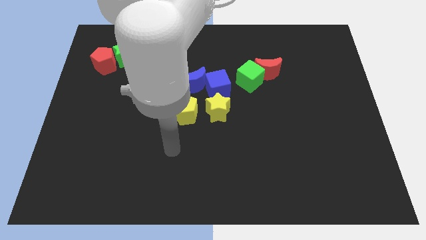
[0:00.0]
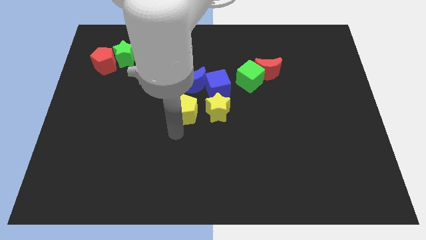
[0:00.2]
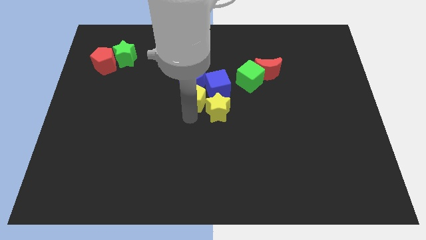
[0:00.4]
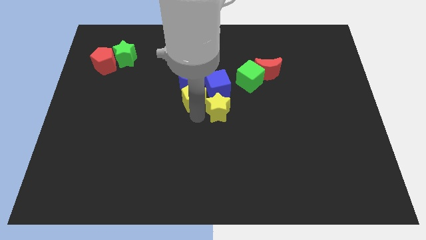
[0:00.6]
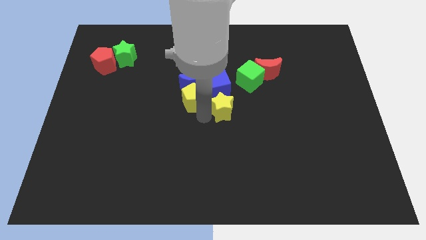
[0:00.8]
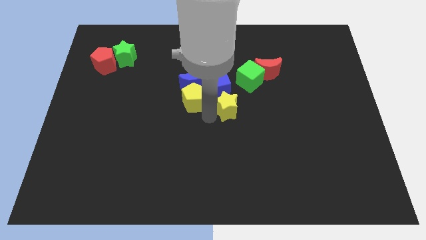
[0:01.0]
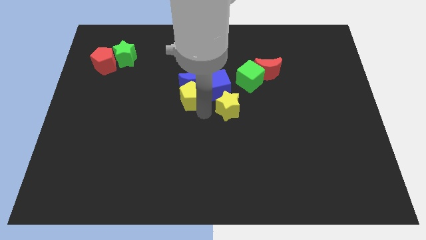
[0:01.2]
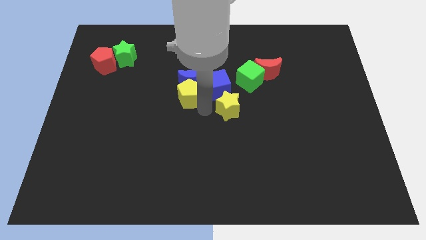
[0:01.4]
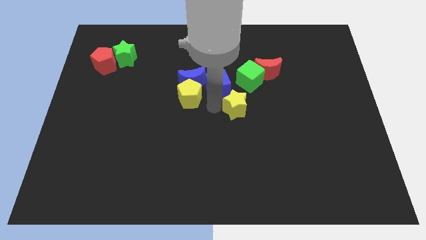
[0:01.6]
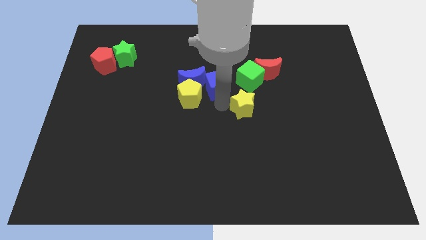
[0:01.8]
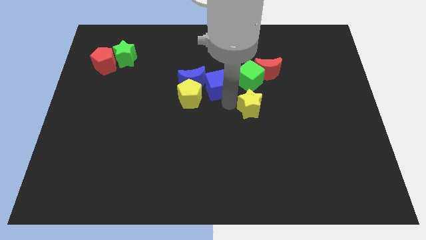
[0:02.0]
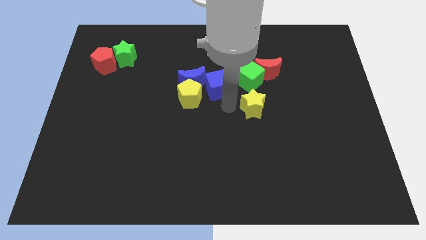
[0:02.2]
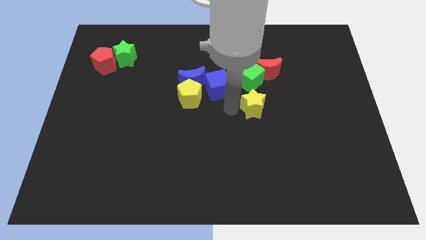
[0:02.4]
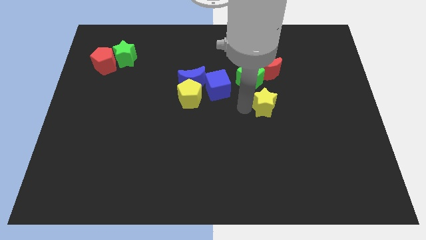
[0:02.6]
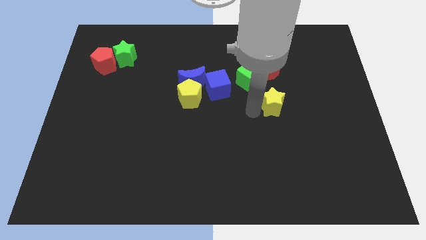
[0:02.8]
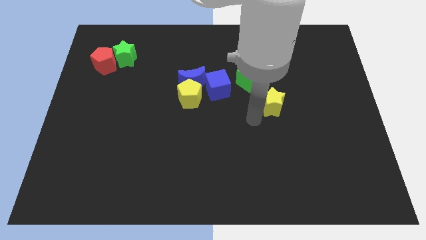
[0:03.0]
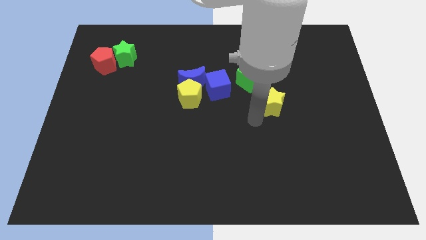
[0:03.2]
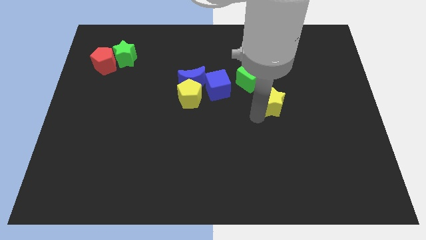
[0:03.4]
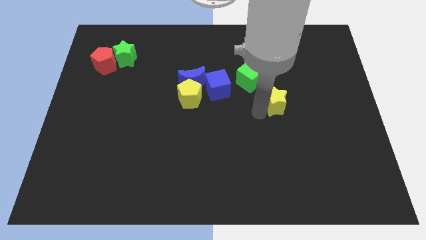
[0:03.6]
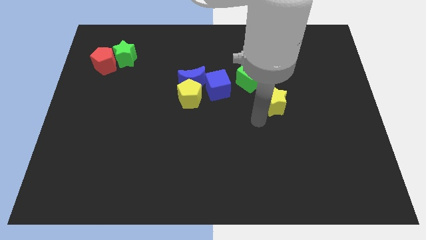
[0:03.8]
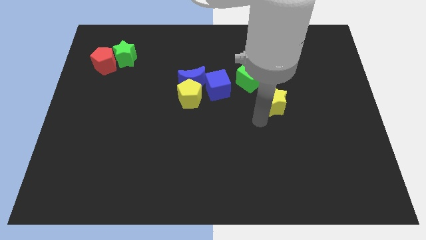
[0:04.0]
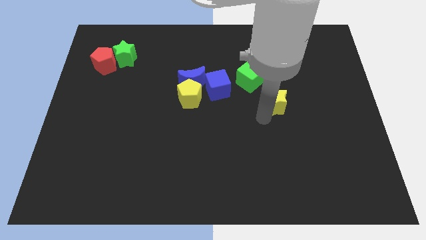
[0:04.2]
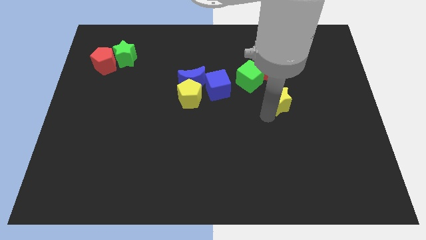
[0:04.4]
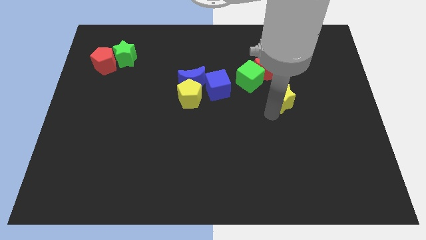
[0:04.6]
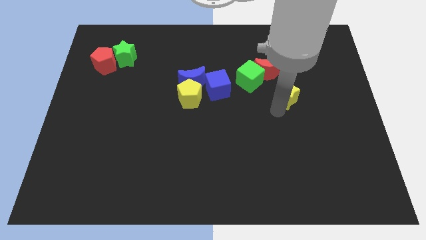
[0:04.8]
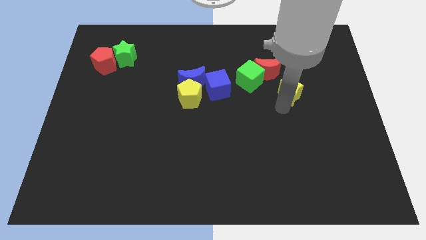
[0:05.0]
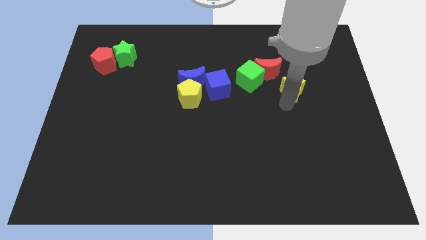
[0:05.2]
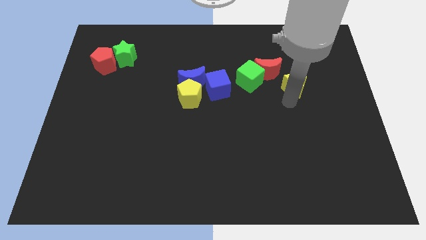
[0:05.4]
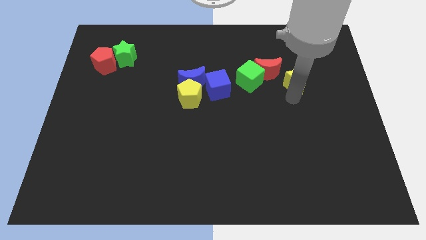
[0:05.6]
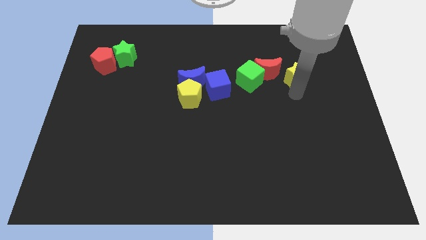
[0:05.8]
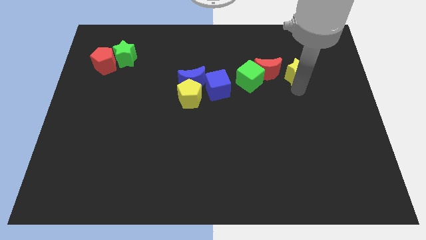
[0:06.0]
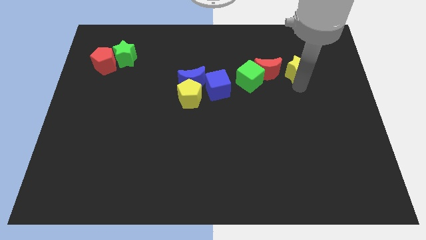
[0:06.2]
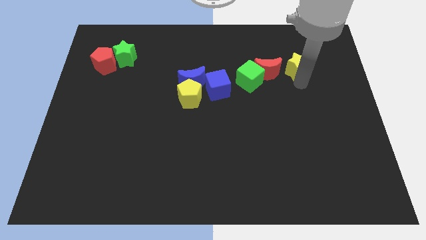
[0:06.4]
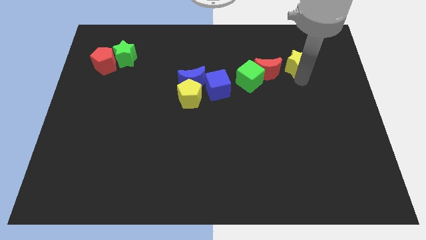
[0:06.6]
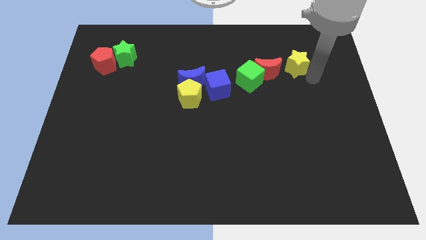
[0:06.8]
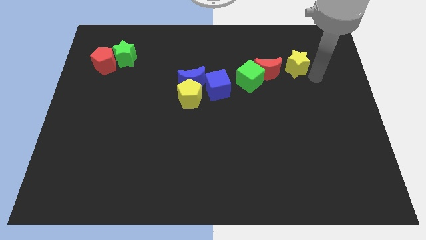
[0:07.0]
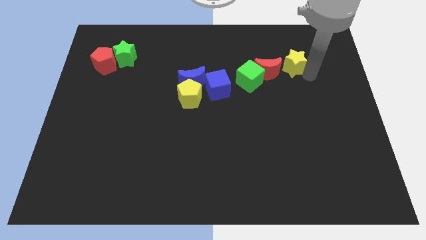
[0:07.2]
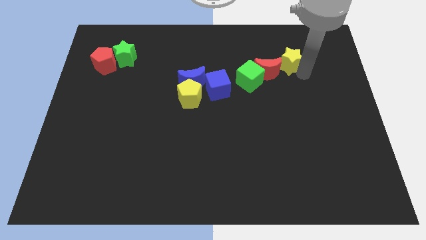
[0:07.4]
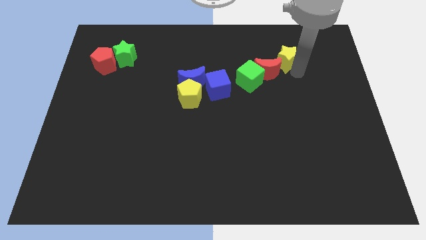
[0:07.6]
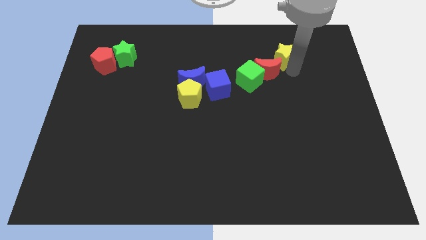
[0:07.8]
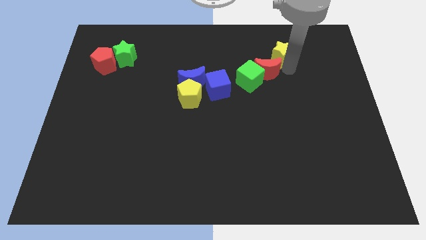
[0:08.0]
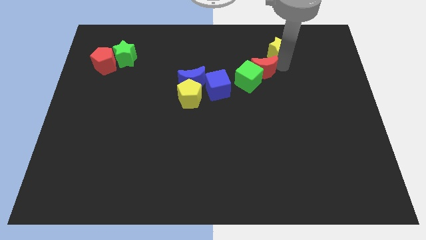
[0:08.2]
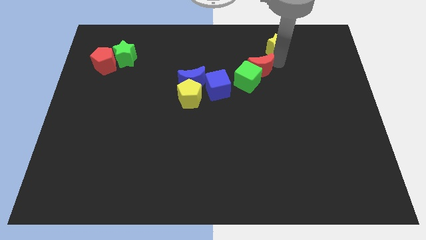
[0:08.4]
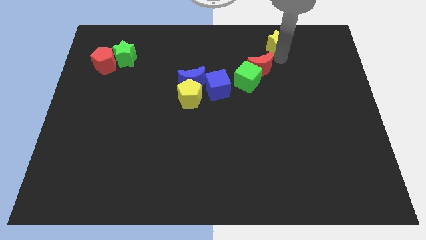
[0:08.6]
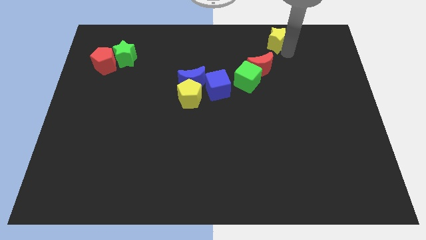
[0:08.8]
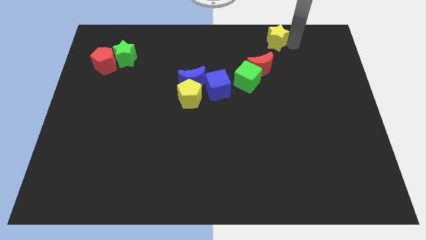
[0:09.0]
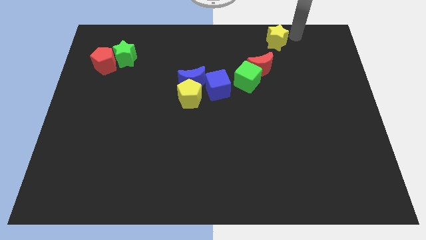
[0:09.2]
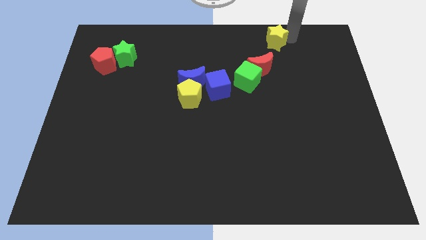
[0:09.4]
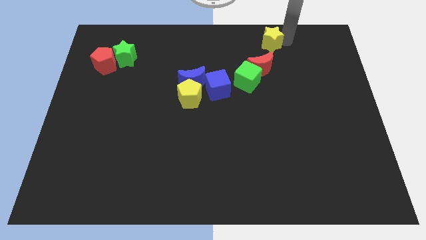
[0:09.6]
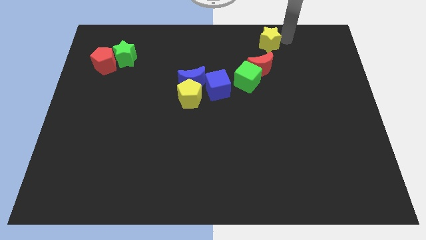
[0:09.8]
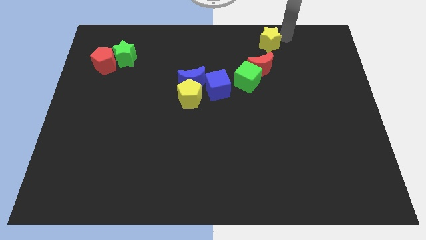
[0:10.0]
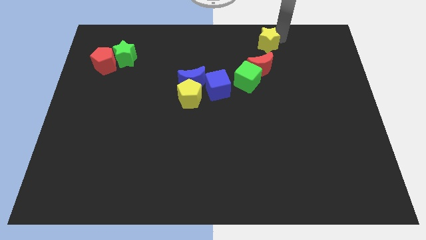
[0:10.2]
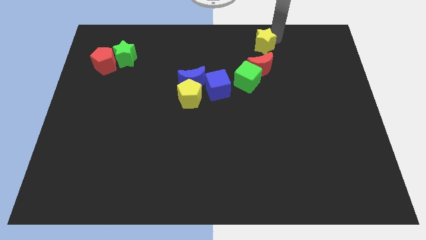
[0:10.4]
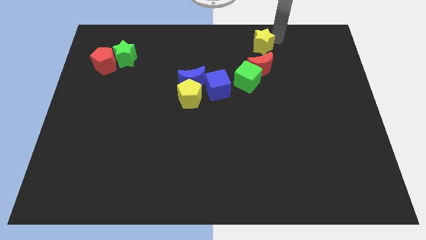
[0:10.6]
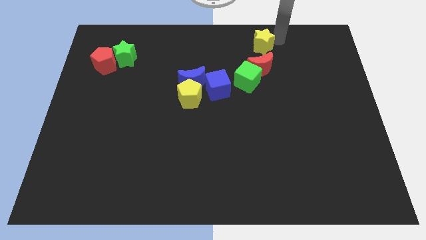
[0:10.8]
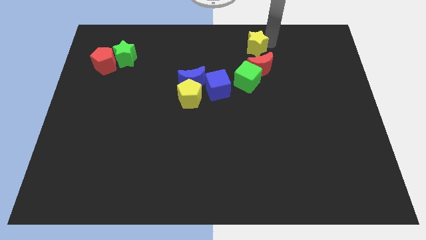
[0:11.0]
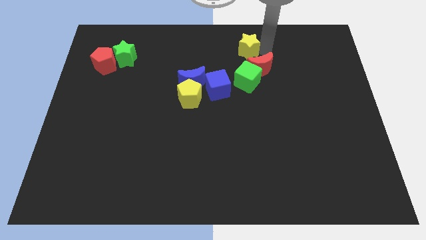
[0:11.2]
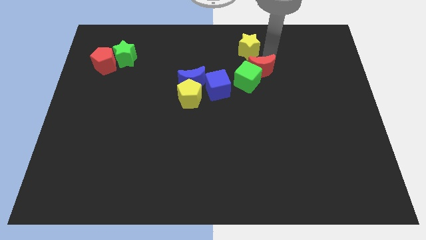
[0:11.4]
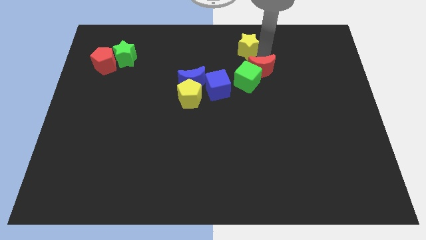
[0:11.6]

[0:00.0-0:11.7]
put the yellow star to the top

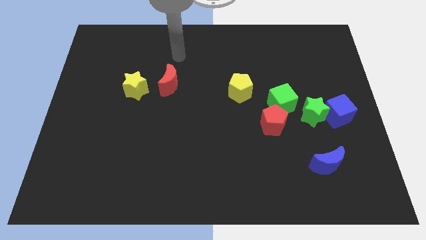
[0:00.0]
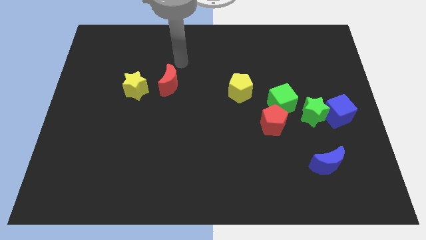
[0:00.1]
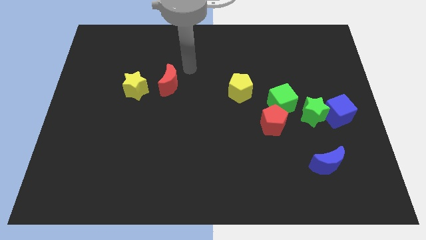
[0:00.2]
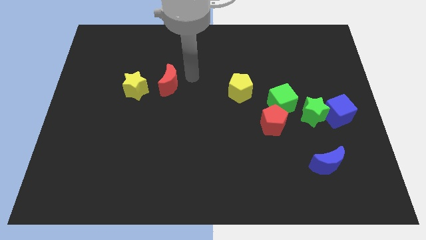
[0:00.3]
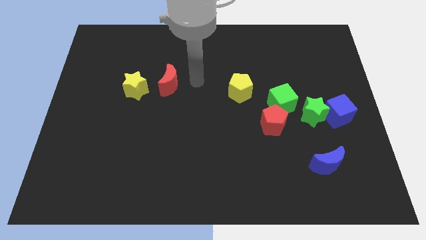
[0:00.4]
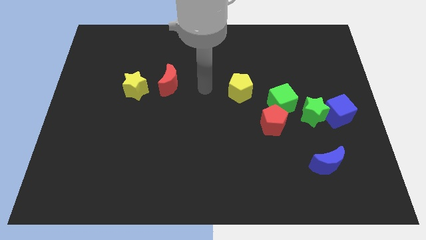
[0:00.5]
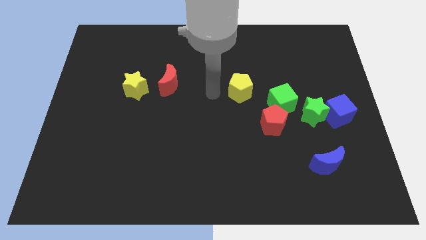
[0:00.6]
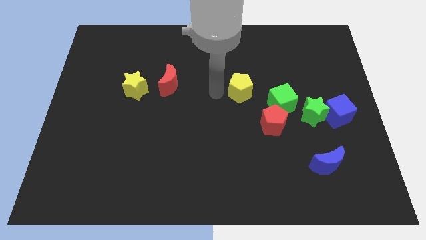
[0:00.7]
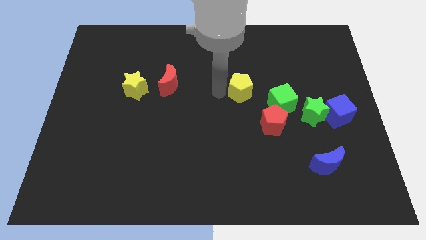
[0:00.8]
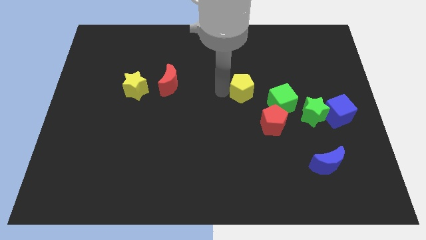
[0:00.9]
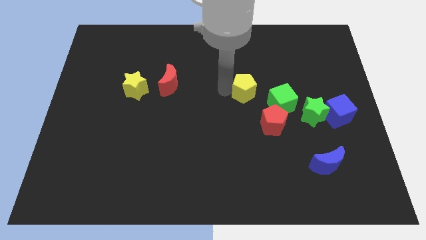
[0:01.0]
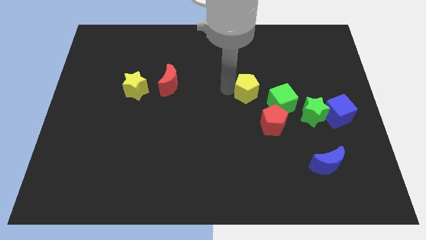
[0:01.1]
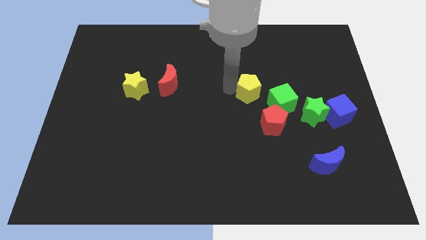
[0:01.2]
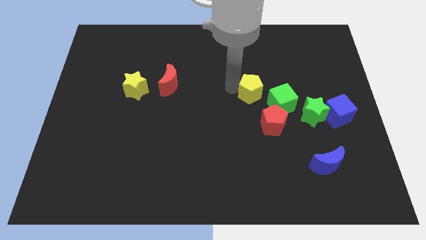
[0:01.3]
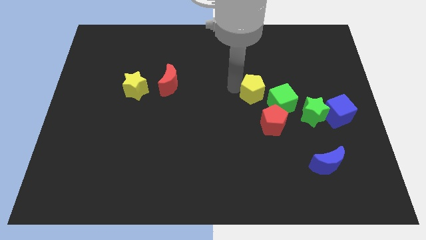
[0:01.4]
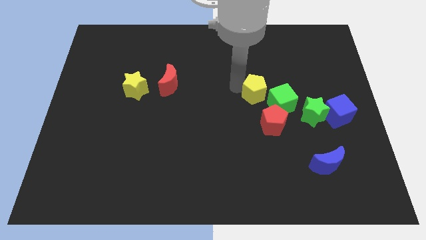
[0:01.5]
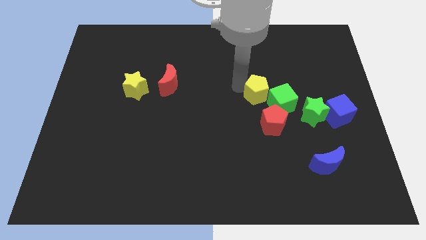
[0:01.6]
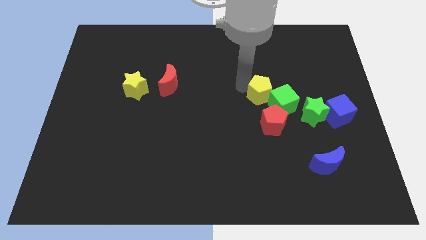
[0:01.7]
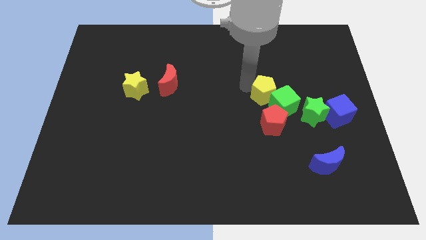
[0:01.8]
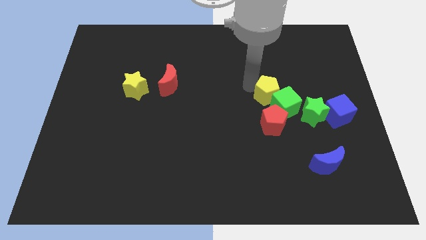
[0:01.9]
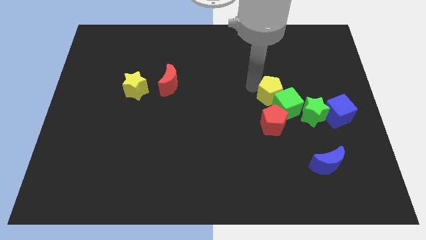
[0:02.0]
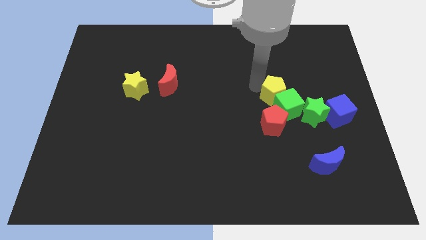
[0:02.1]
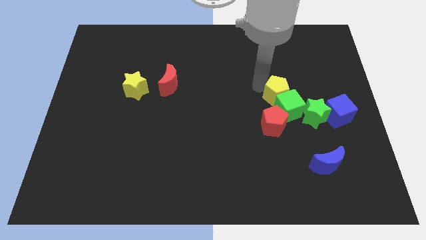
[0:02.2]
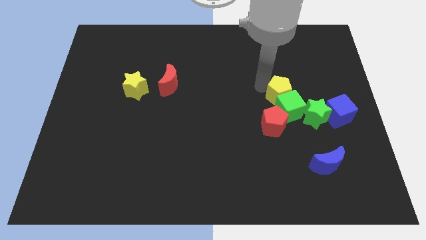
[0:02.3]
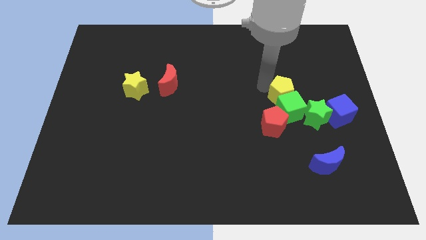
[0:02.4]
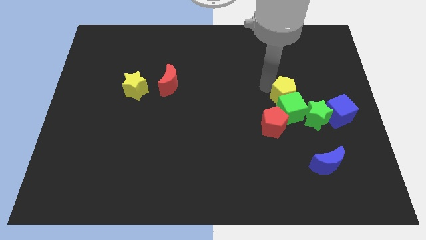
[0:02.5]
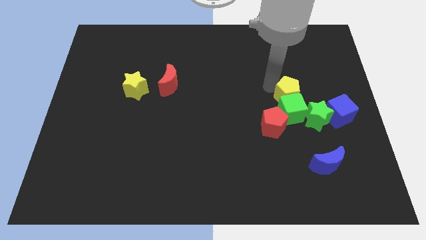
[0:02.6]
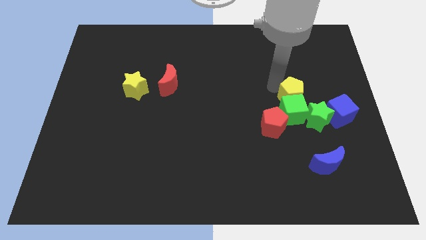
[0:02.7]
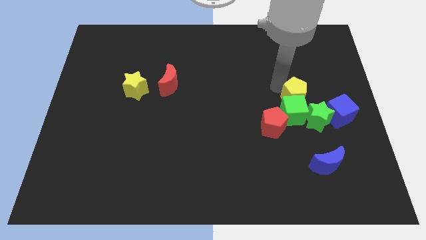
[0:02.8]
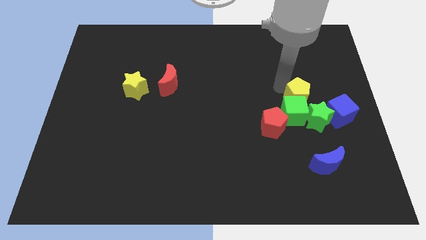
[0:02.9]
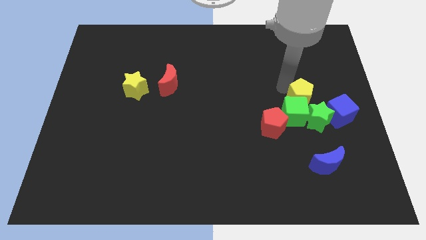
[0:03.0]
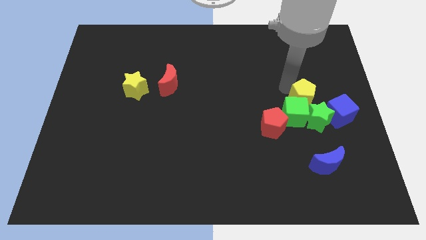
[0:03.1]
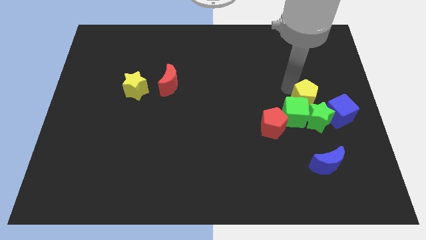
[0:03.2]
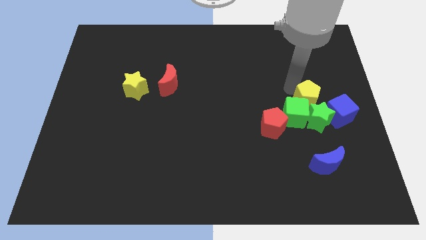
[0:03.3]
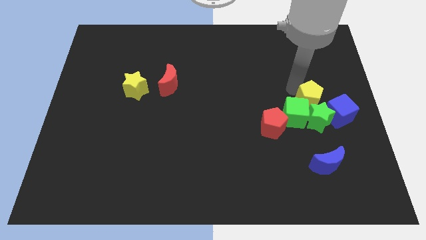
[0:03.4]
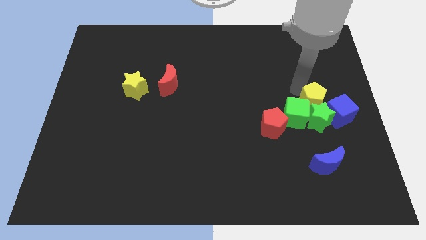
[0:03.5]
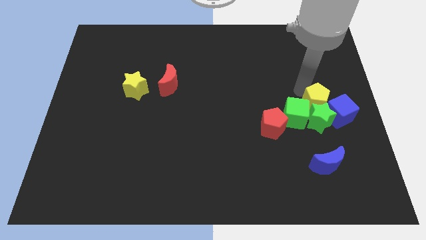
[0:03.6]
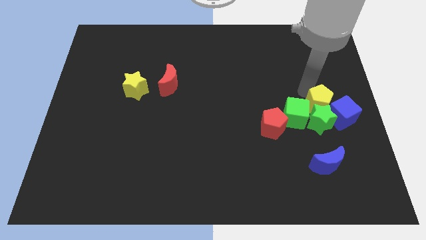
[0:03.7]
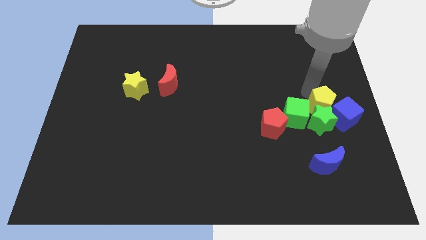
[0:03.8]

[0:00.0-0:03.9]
put the yellow pentagon to the right side
